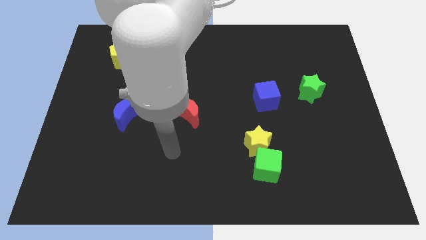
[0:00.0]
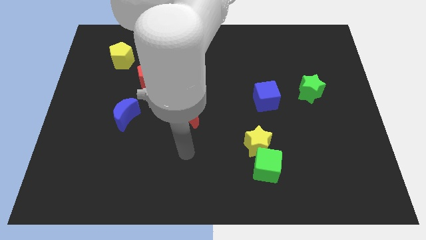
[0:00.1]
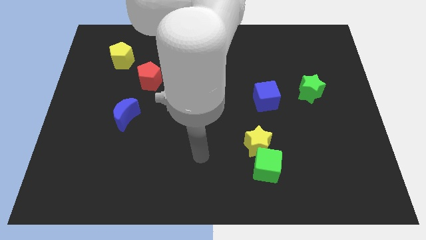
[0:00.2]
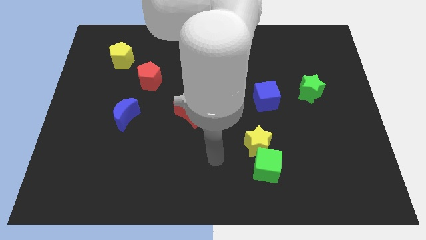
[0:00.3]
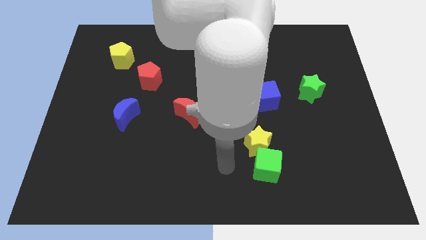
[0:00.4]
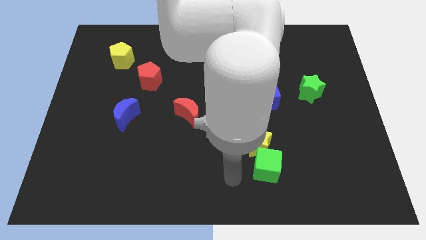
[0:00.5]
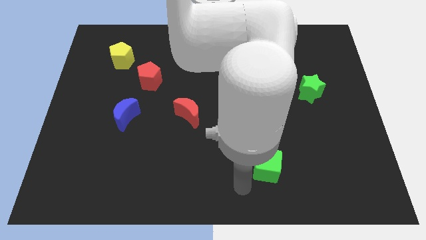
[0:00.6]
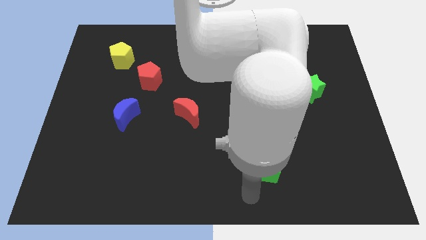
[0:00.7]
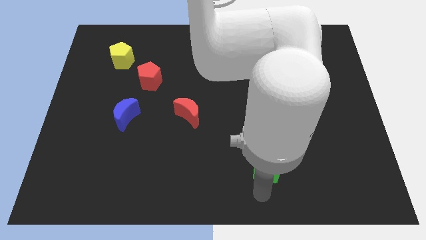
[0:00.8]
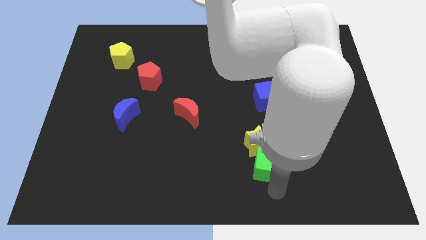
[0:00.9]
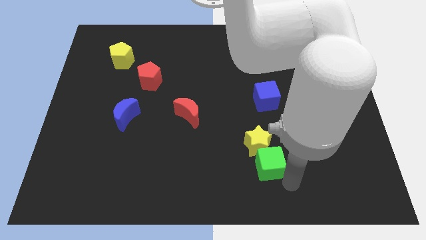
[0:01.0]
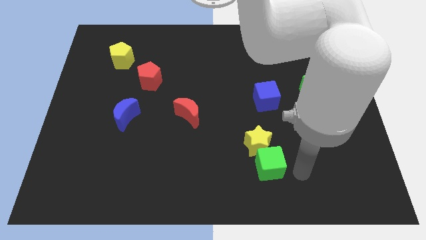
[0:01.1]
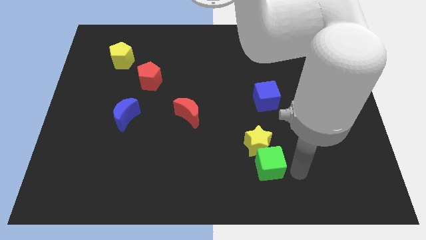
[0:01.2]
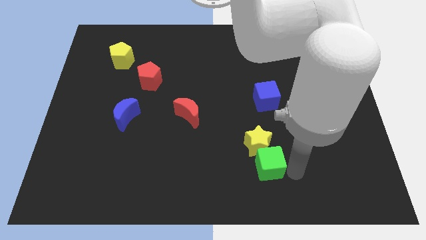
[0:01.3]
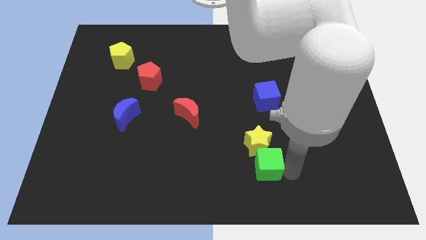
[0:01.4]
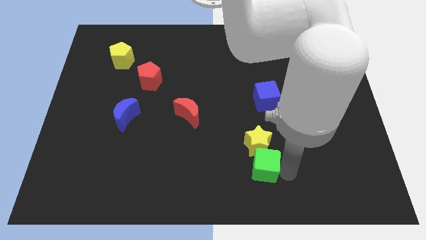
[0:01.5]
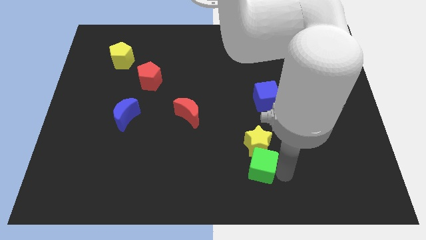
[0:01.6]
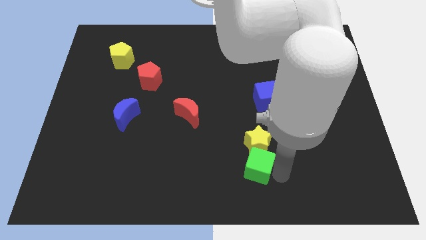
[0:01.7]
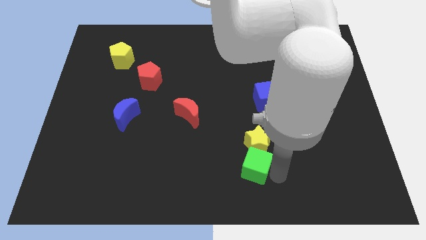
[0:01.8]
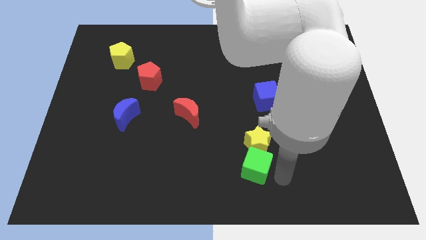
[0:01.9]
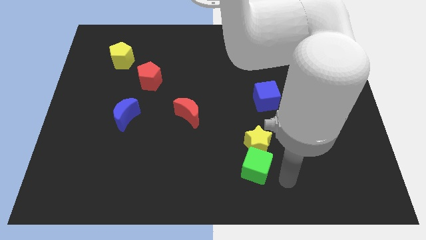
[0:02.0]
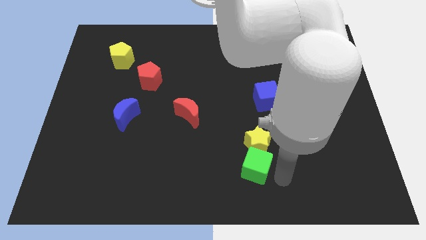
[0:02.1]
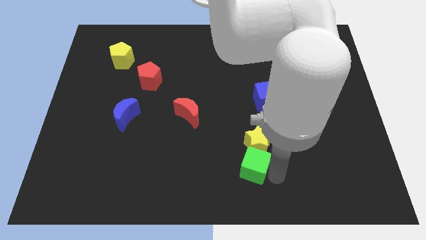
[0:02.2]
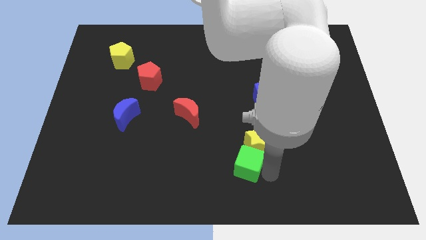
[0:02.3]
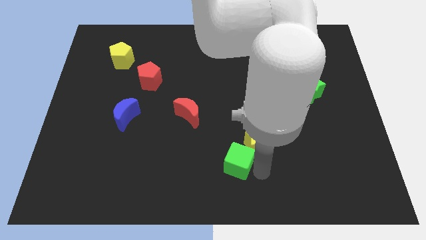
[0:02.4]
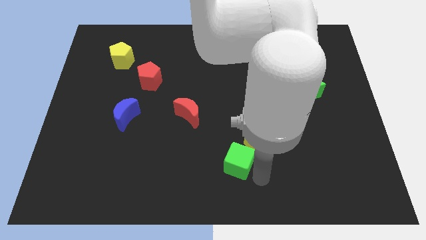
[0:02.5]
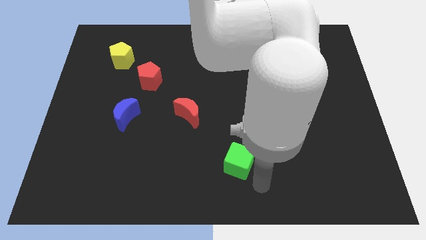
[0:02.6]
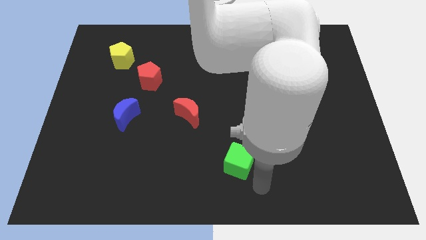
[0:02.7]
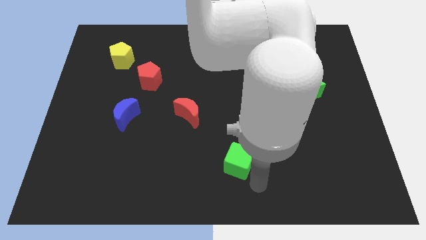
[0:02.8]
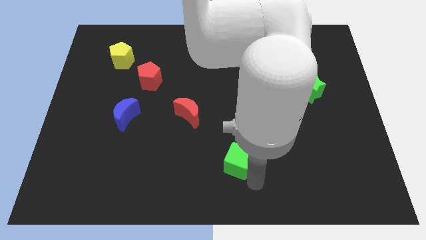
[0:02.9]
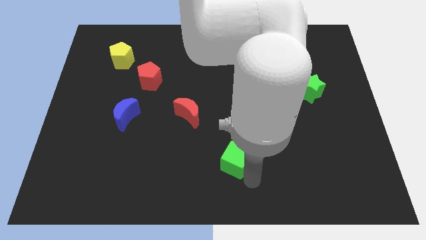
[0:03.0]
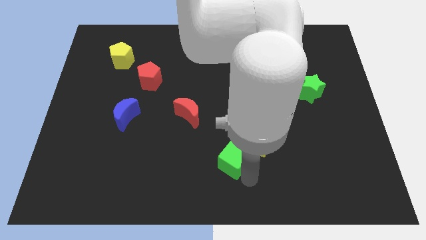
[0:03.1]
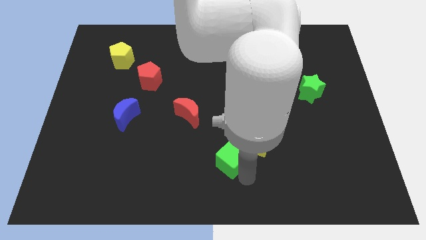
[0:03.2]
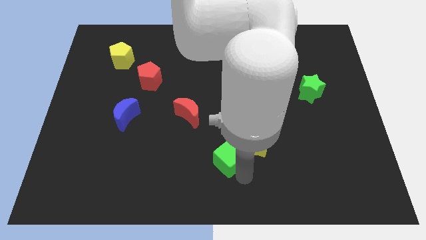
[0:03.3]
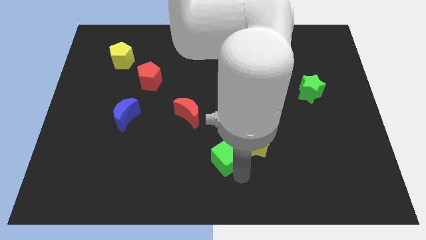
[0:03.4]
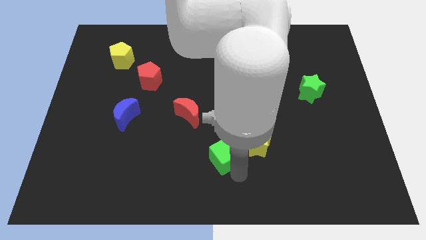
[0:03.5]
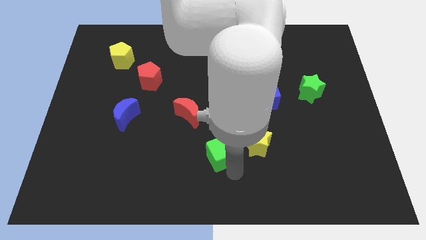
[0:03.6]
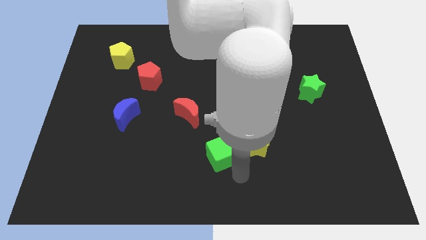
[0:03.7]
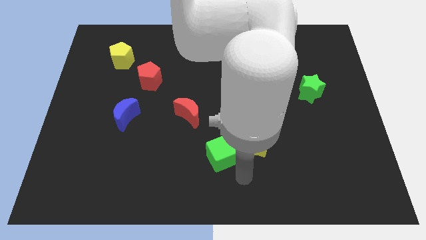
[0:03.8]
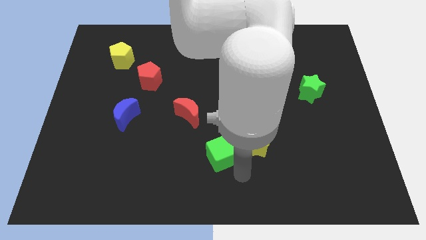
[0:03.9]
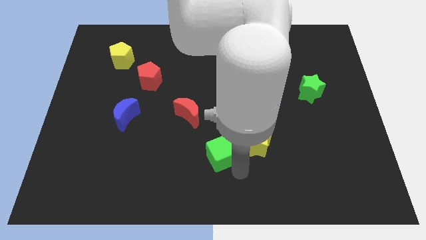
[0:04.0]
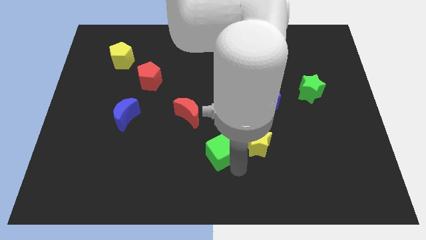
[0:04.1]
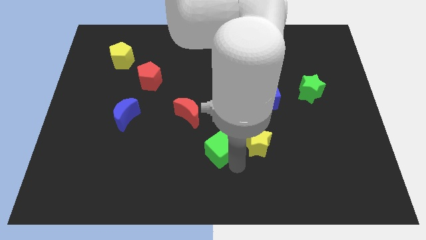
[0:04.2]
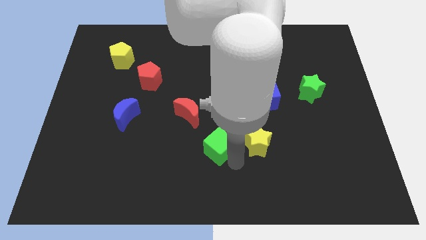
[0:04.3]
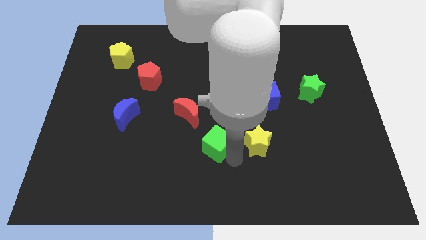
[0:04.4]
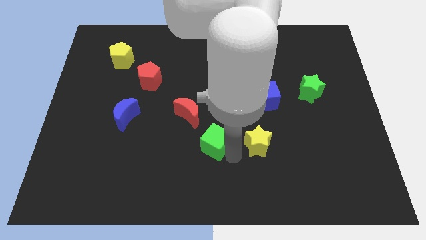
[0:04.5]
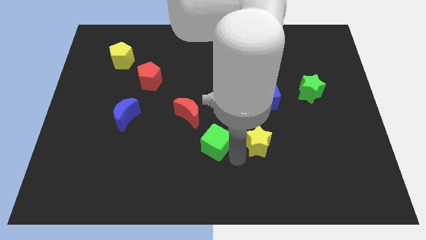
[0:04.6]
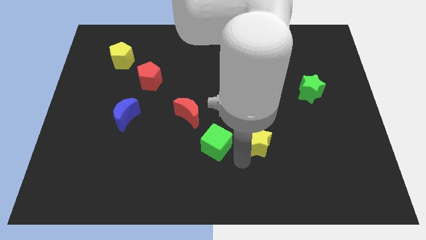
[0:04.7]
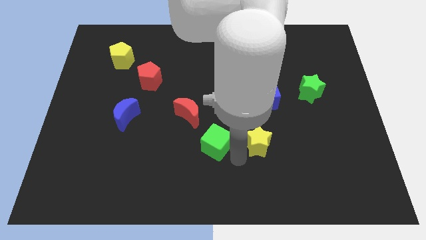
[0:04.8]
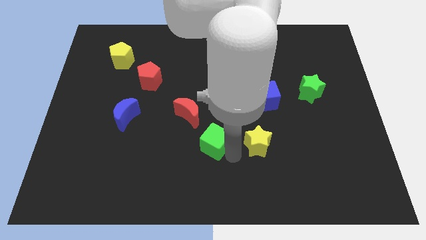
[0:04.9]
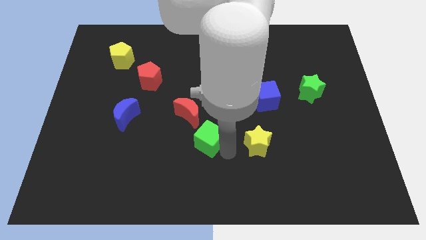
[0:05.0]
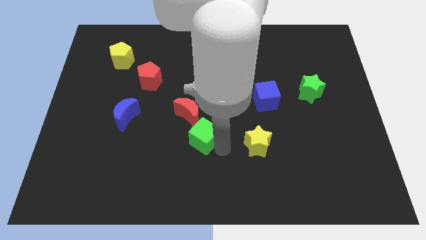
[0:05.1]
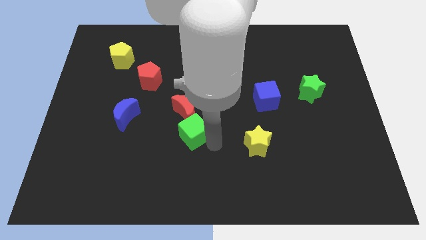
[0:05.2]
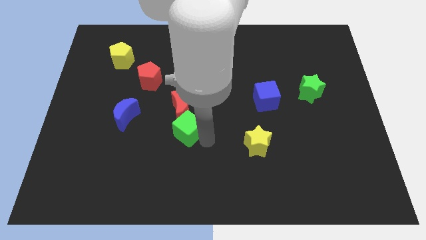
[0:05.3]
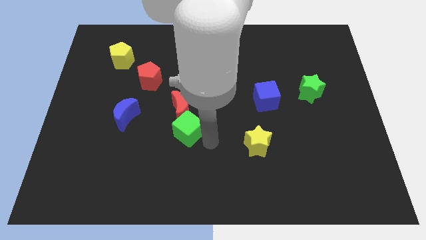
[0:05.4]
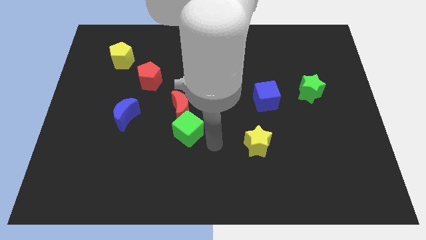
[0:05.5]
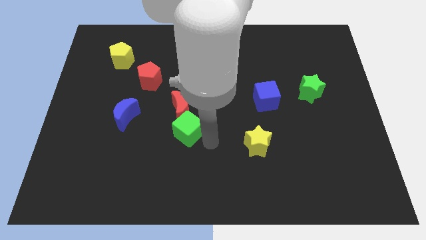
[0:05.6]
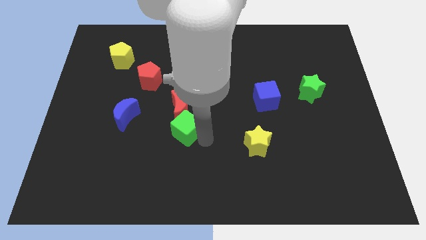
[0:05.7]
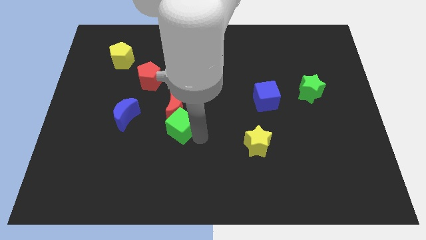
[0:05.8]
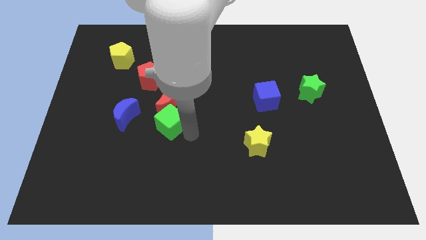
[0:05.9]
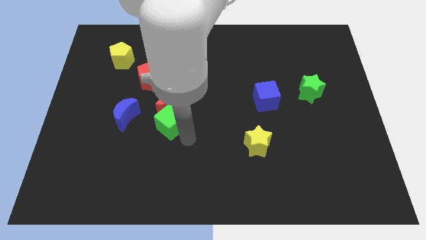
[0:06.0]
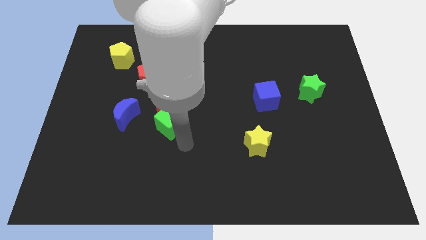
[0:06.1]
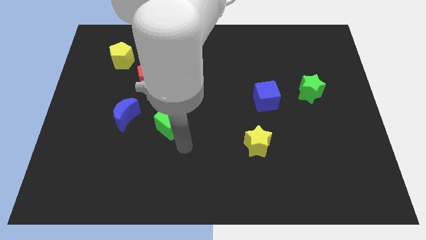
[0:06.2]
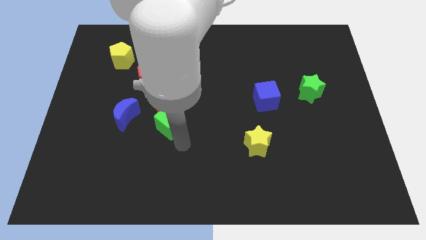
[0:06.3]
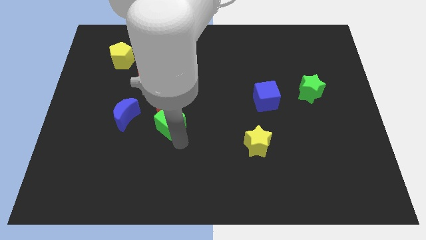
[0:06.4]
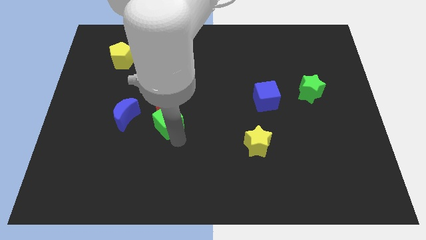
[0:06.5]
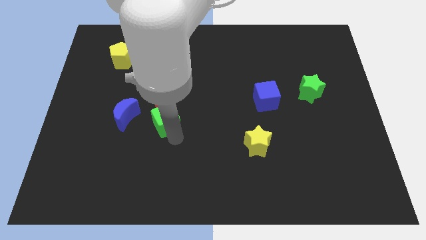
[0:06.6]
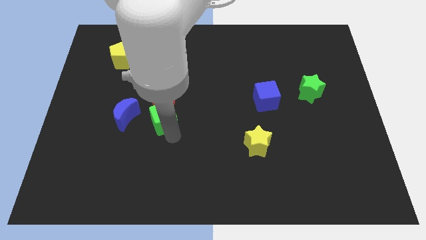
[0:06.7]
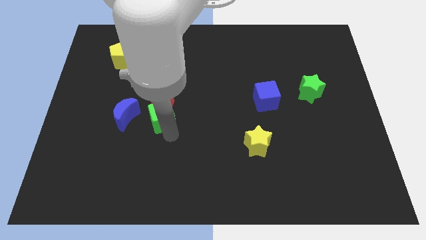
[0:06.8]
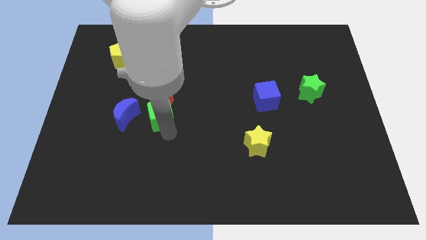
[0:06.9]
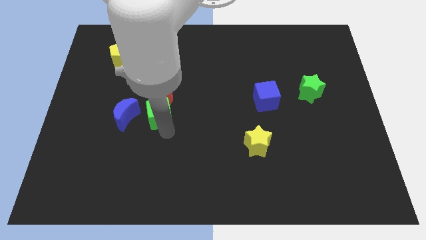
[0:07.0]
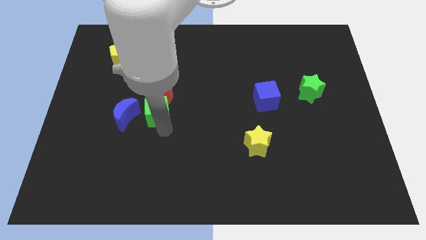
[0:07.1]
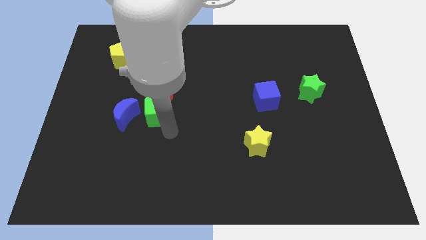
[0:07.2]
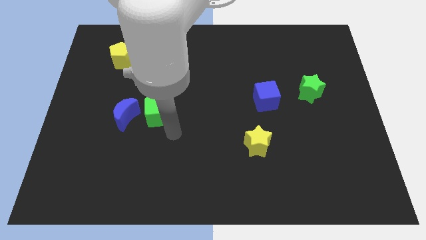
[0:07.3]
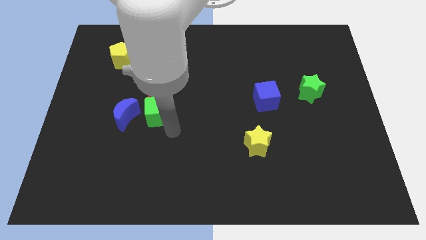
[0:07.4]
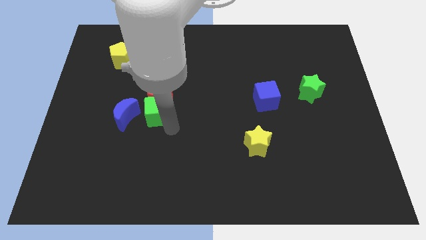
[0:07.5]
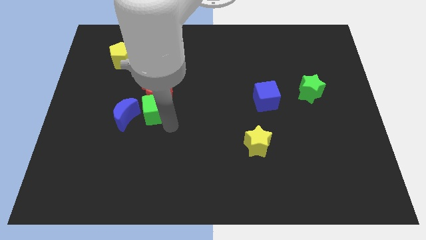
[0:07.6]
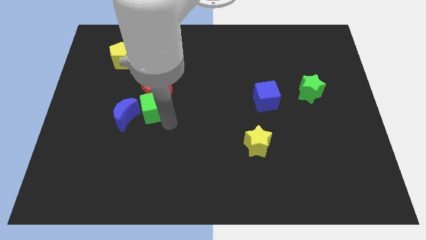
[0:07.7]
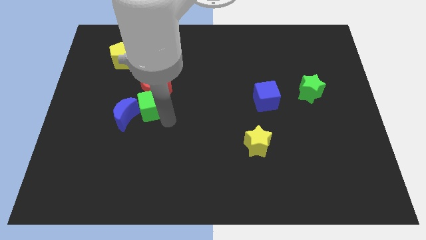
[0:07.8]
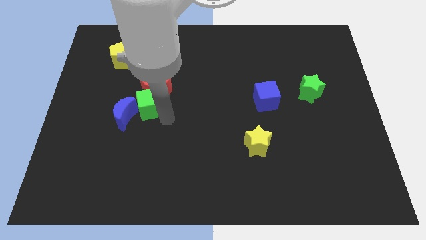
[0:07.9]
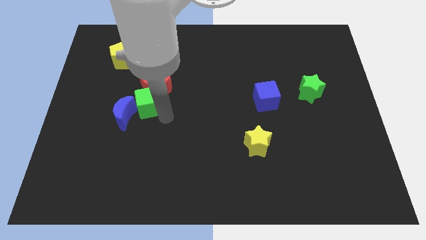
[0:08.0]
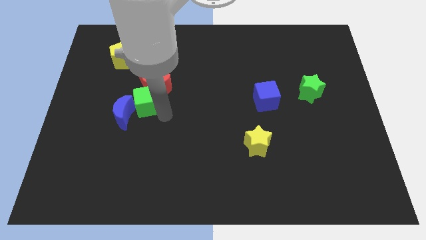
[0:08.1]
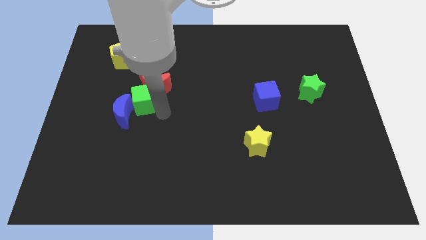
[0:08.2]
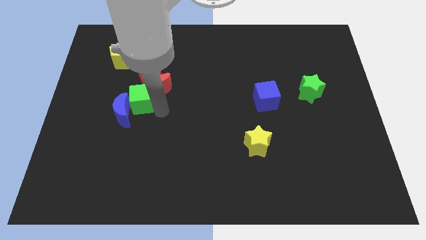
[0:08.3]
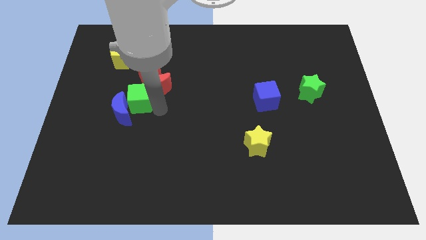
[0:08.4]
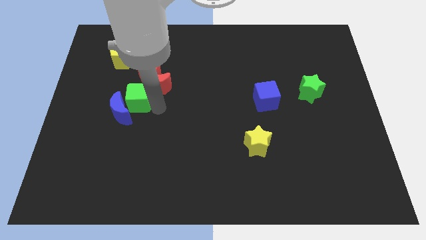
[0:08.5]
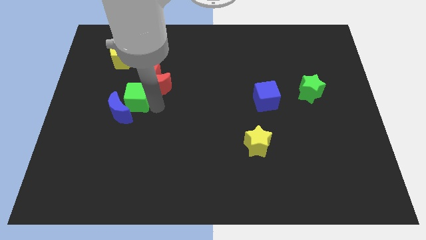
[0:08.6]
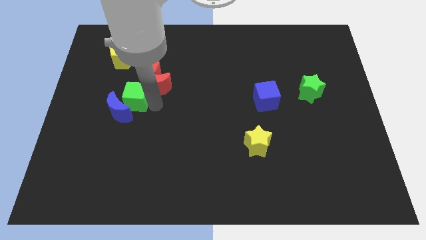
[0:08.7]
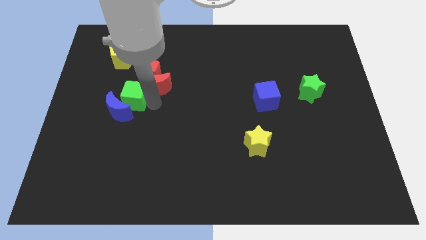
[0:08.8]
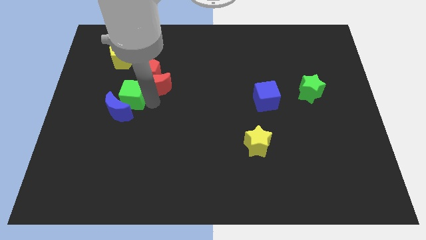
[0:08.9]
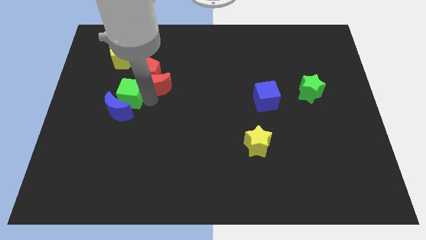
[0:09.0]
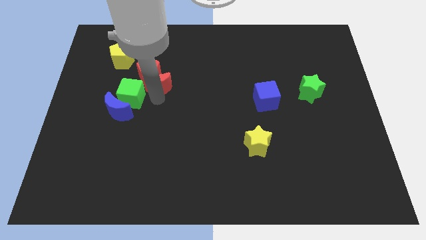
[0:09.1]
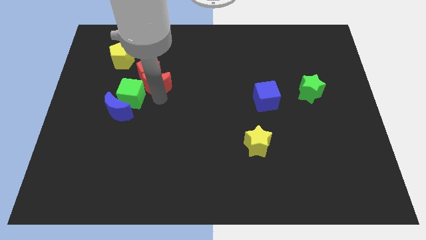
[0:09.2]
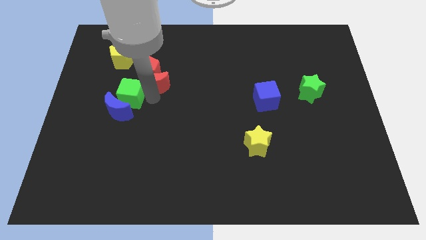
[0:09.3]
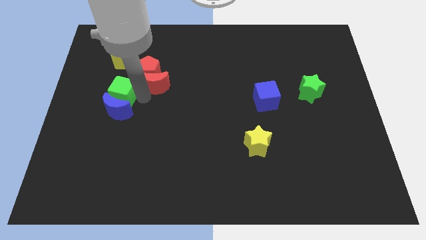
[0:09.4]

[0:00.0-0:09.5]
push the green cube diagonally up and to the left of the blue moon
